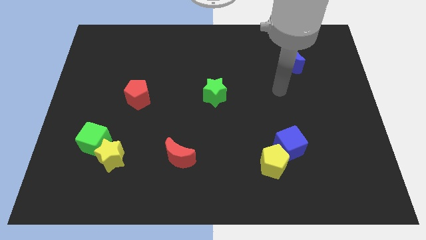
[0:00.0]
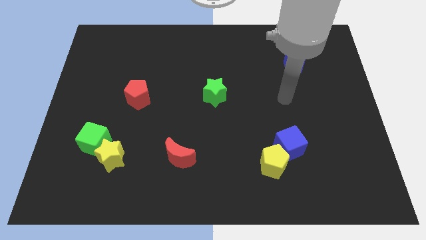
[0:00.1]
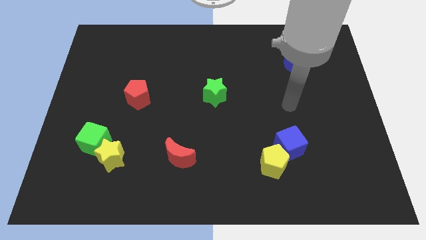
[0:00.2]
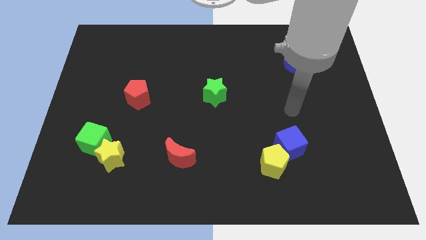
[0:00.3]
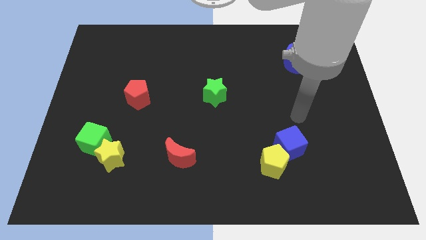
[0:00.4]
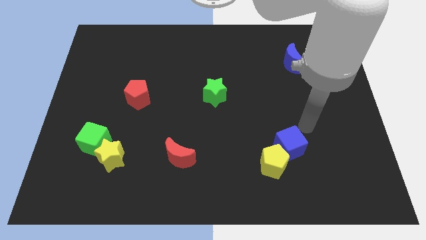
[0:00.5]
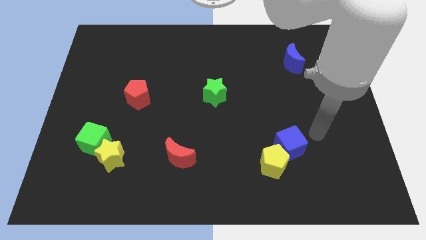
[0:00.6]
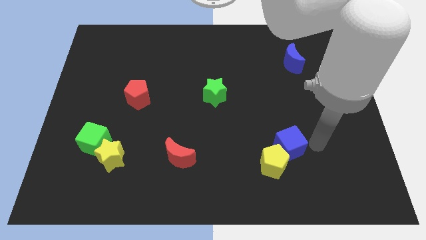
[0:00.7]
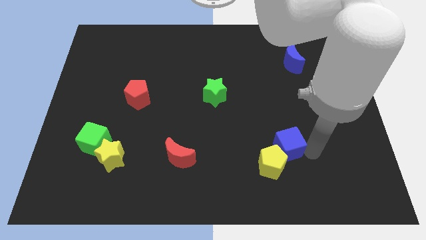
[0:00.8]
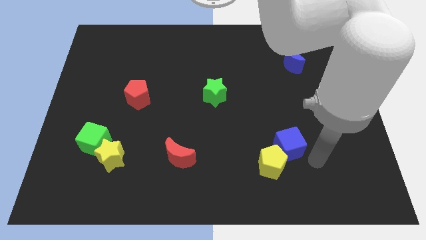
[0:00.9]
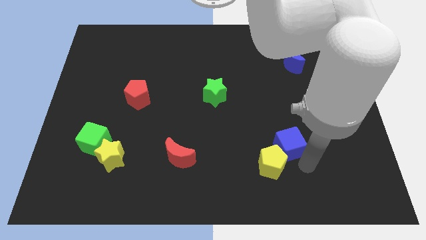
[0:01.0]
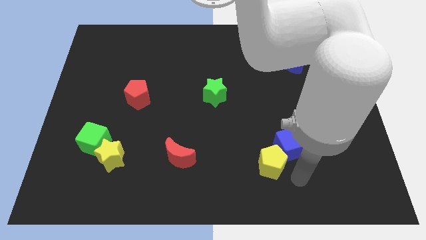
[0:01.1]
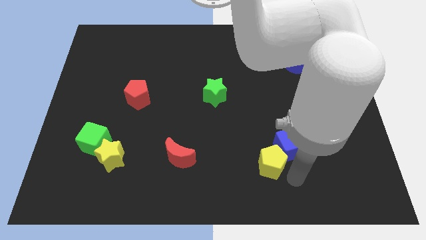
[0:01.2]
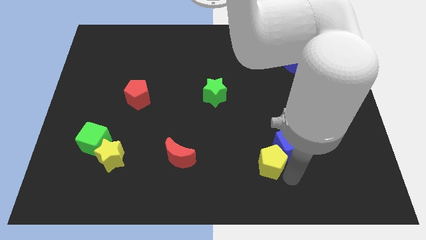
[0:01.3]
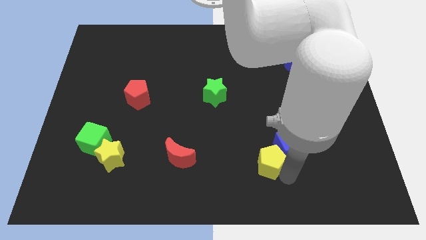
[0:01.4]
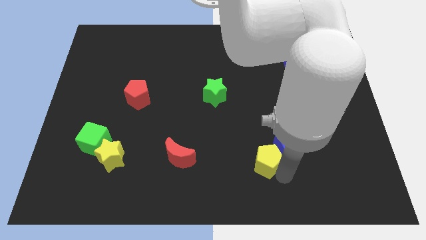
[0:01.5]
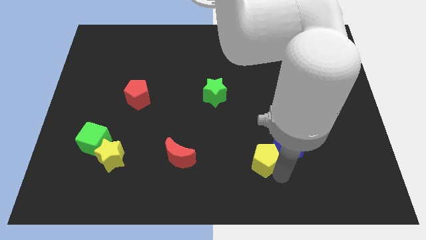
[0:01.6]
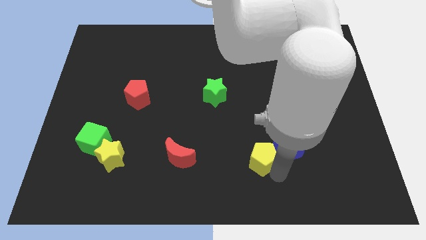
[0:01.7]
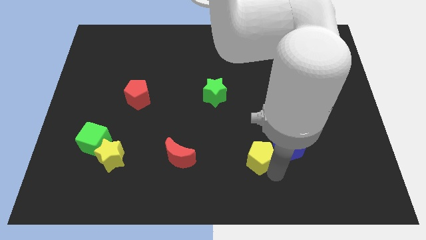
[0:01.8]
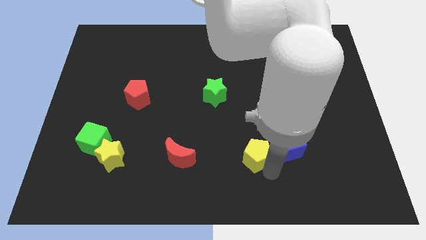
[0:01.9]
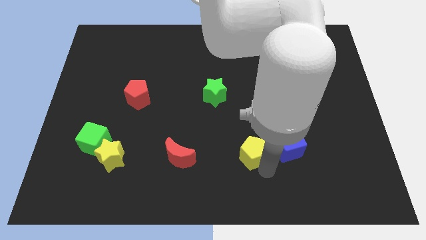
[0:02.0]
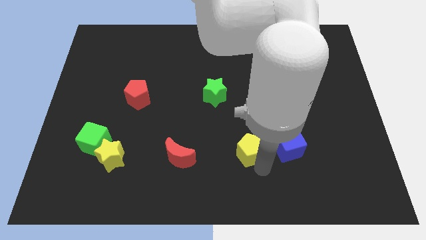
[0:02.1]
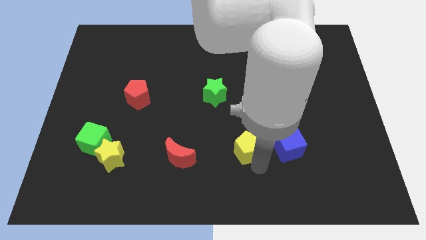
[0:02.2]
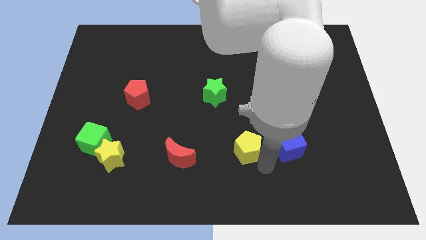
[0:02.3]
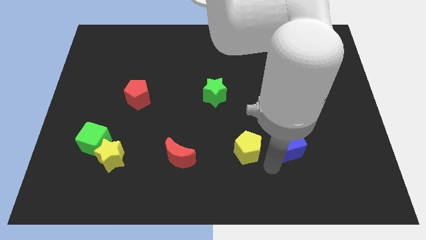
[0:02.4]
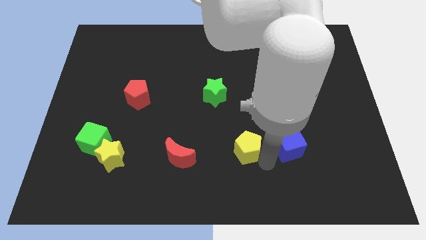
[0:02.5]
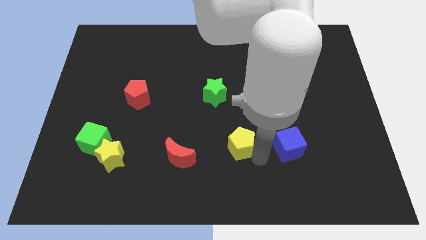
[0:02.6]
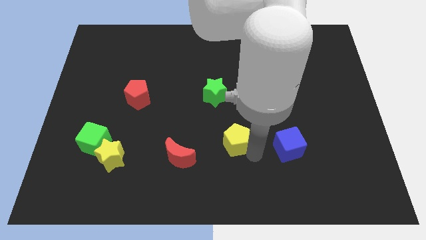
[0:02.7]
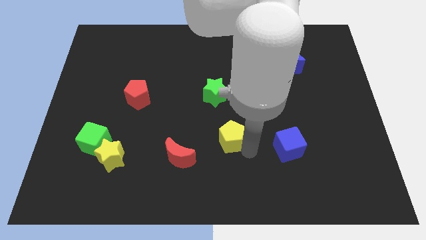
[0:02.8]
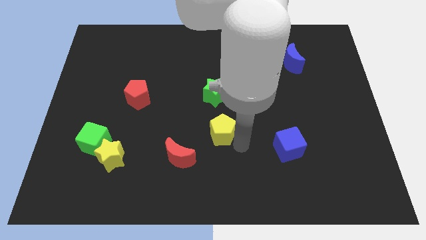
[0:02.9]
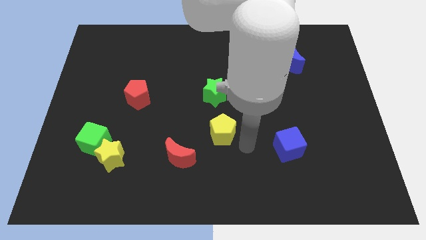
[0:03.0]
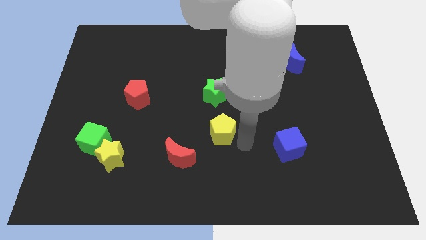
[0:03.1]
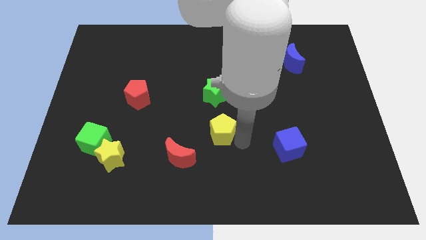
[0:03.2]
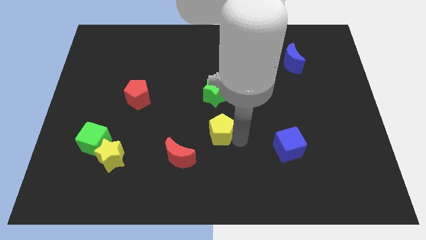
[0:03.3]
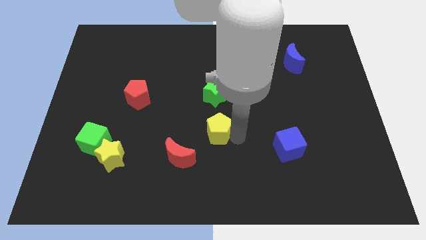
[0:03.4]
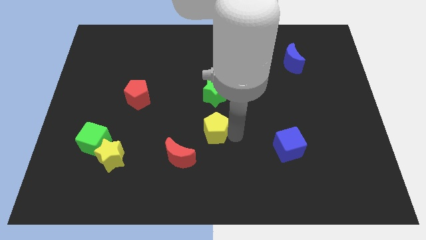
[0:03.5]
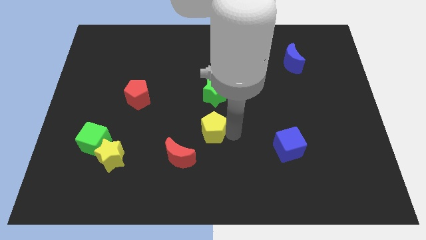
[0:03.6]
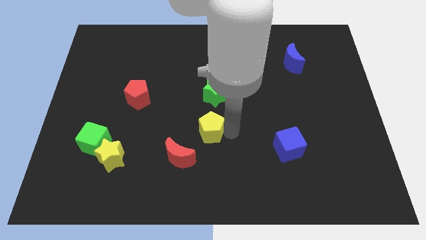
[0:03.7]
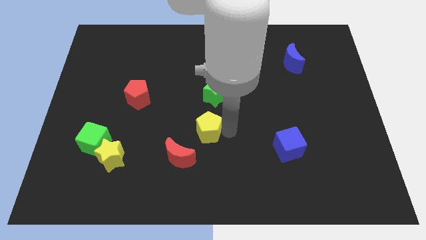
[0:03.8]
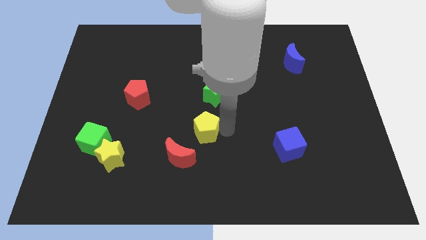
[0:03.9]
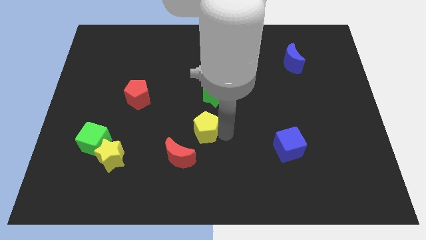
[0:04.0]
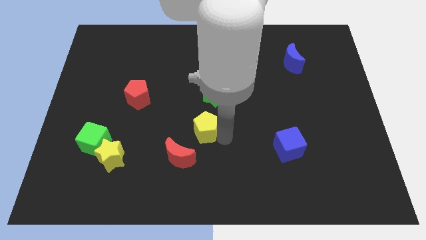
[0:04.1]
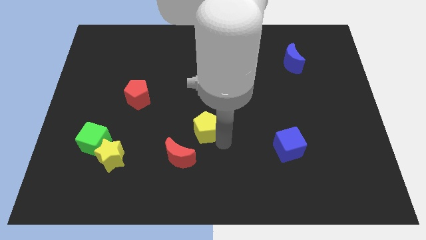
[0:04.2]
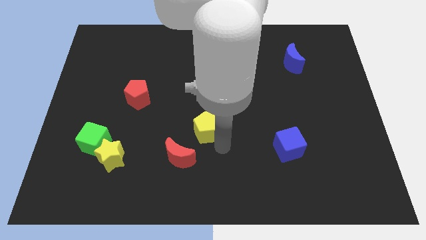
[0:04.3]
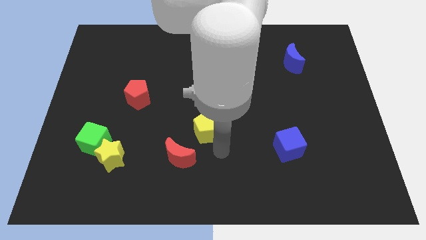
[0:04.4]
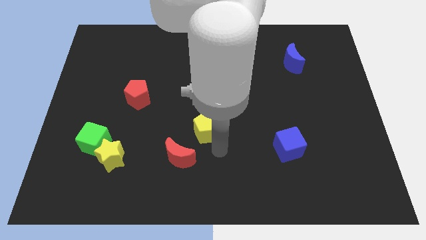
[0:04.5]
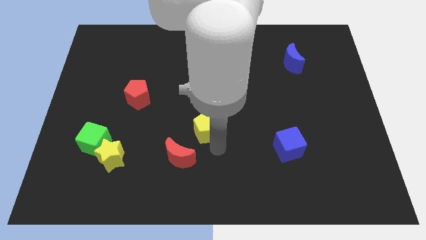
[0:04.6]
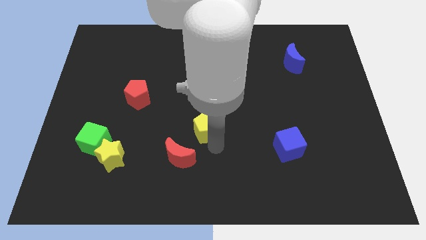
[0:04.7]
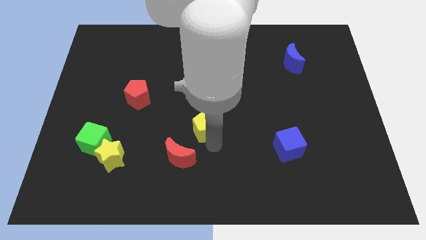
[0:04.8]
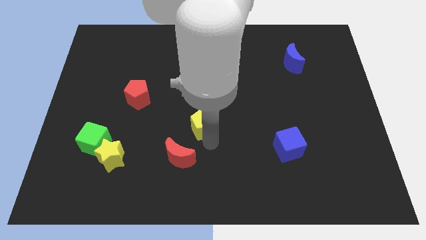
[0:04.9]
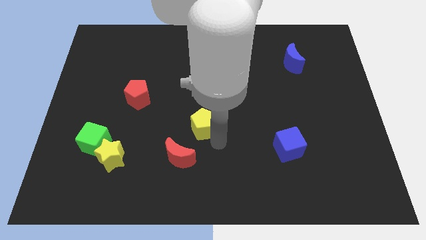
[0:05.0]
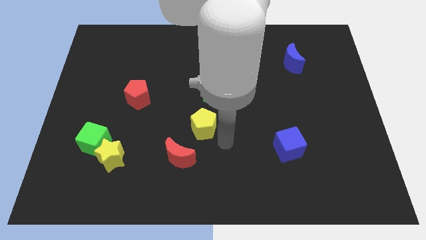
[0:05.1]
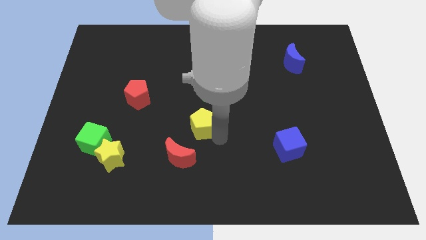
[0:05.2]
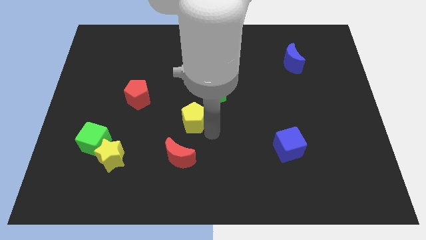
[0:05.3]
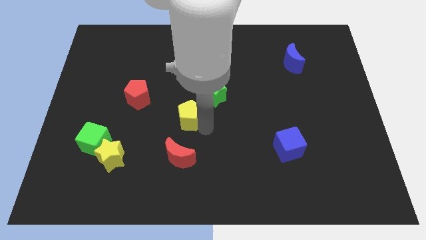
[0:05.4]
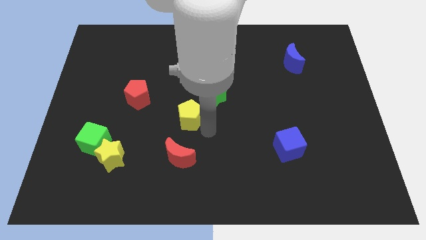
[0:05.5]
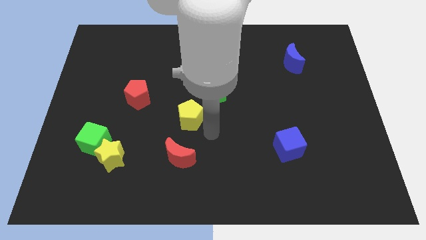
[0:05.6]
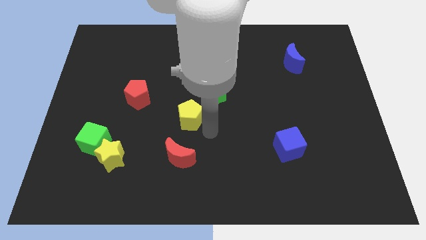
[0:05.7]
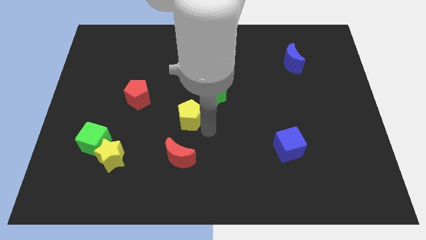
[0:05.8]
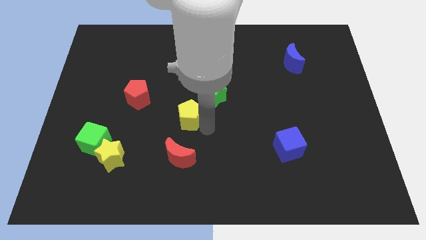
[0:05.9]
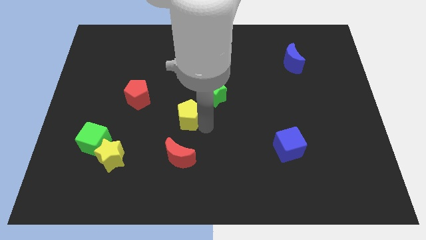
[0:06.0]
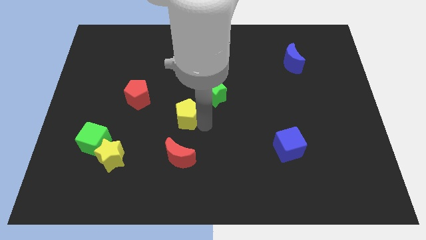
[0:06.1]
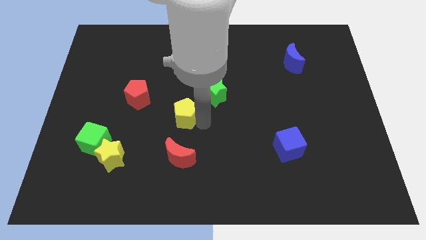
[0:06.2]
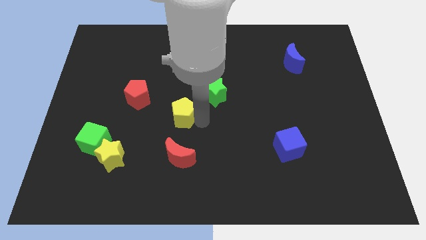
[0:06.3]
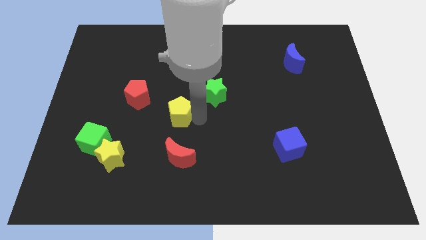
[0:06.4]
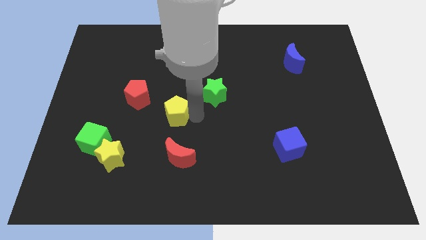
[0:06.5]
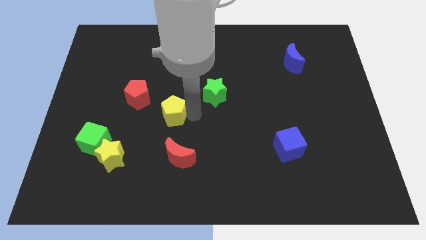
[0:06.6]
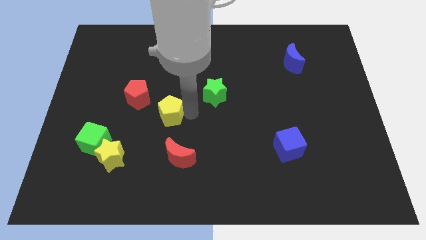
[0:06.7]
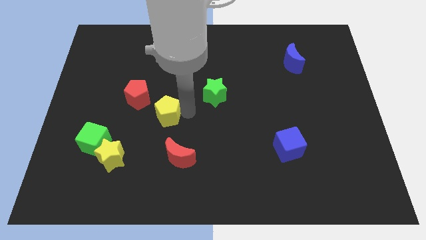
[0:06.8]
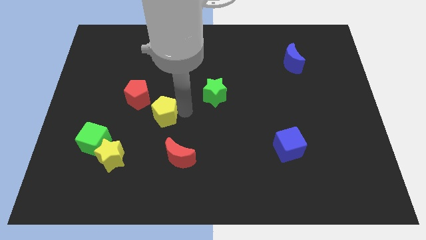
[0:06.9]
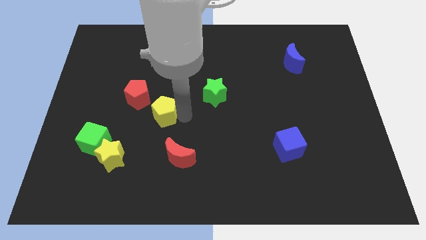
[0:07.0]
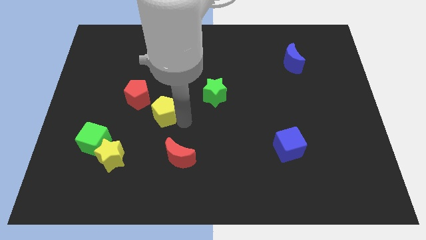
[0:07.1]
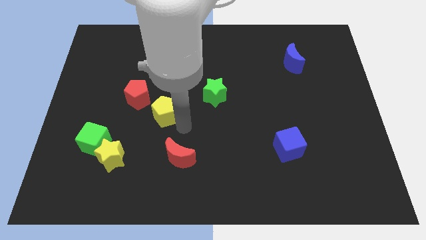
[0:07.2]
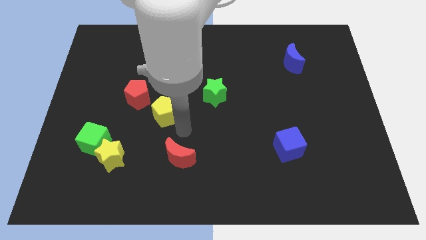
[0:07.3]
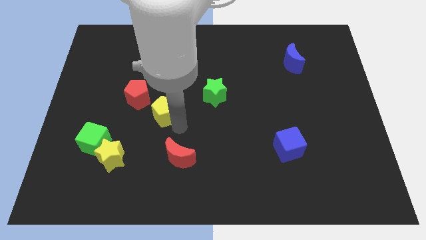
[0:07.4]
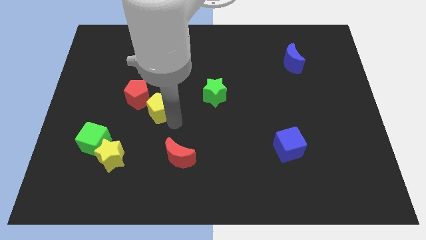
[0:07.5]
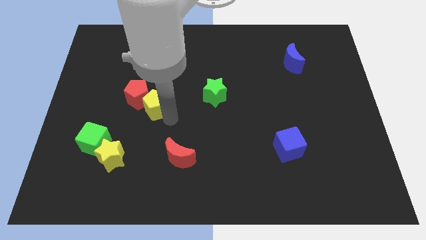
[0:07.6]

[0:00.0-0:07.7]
slide the yellow pentagon close to the red pentagon

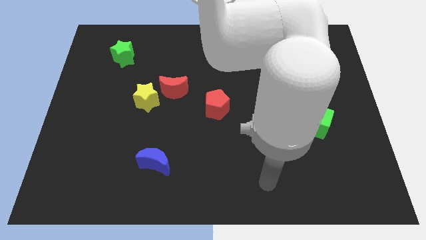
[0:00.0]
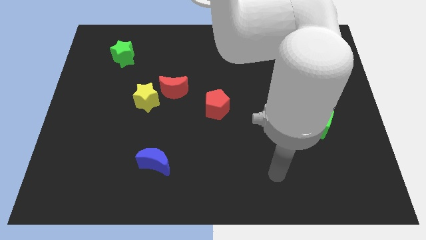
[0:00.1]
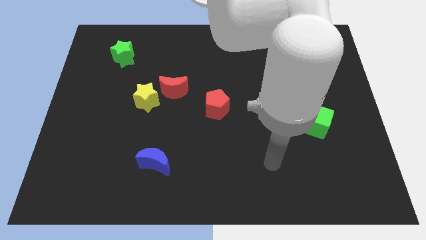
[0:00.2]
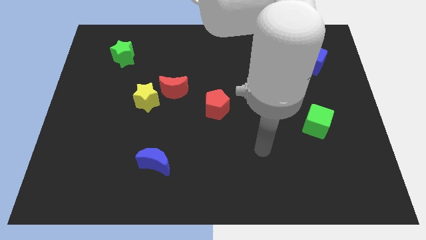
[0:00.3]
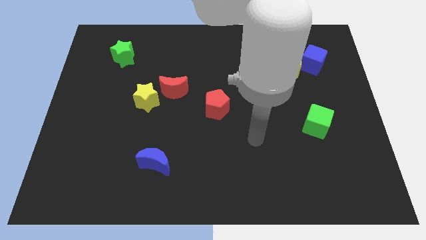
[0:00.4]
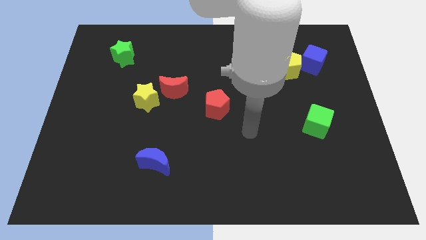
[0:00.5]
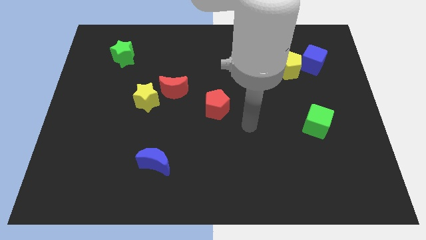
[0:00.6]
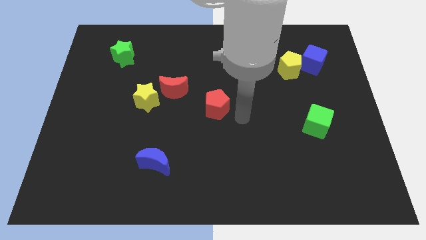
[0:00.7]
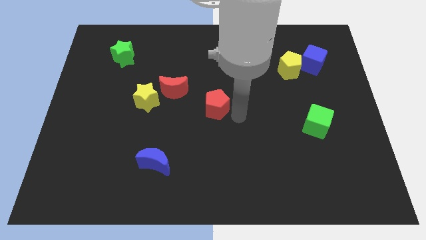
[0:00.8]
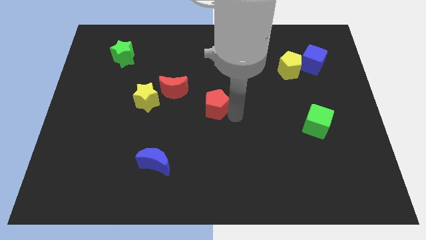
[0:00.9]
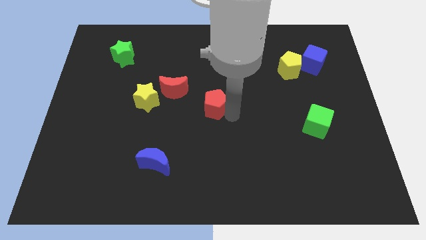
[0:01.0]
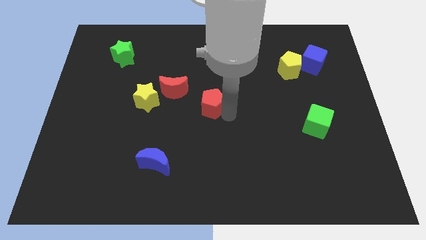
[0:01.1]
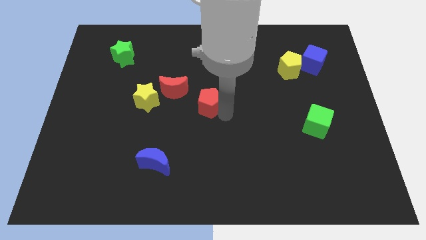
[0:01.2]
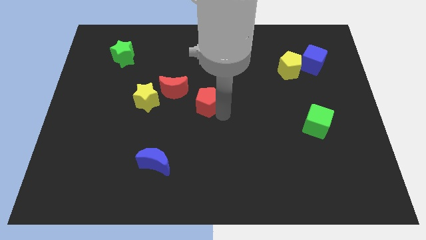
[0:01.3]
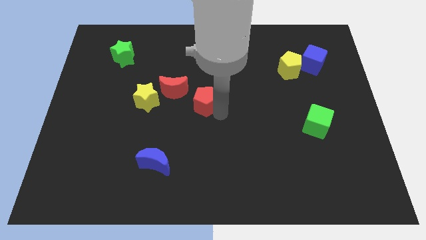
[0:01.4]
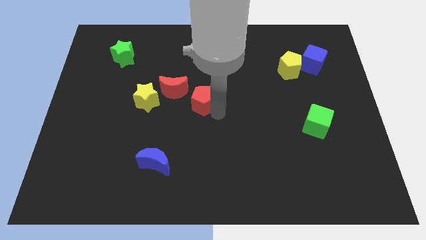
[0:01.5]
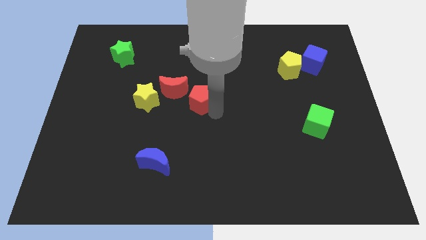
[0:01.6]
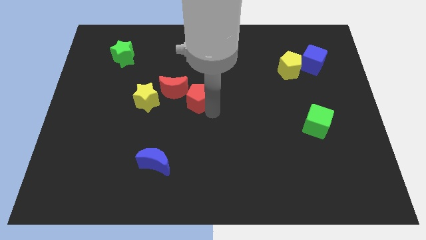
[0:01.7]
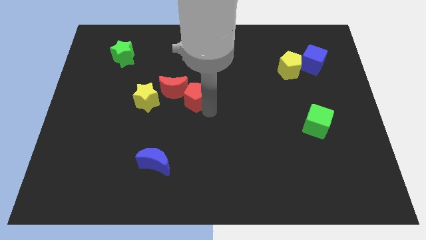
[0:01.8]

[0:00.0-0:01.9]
push the red pentagon towards the red moon
